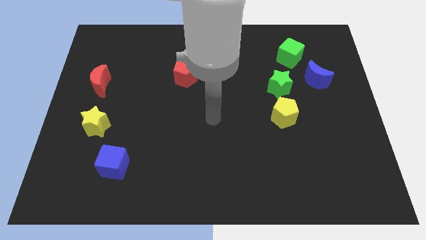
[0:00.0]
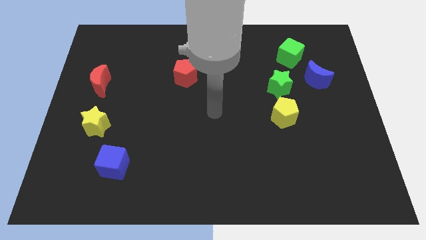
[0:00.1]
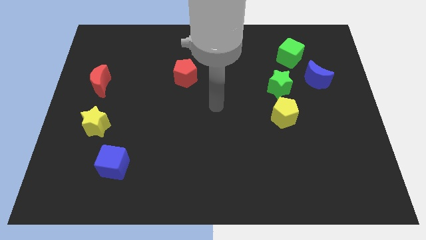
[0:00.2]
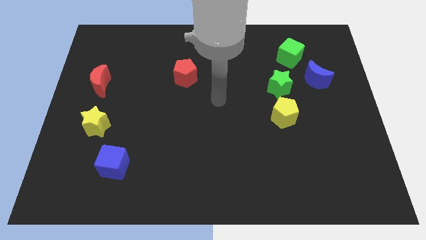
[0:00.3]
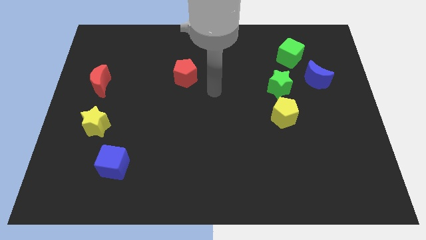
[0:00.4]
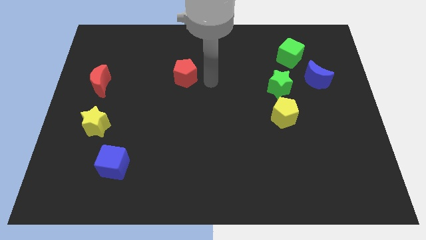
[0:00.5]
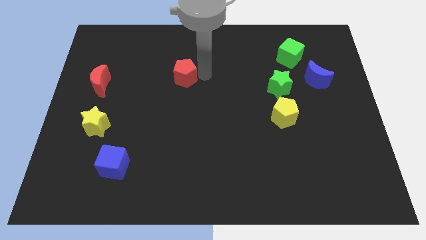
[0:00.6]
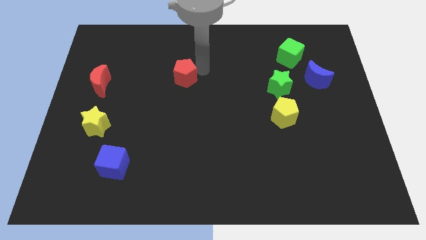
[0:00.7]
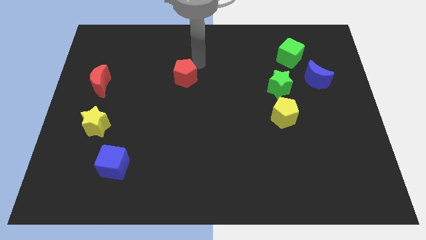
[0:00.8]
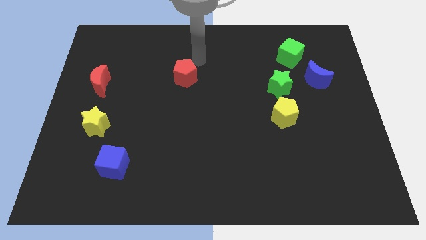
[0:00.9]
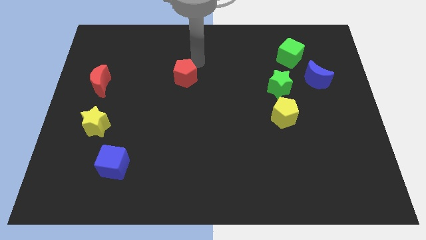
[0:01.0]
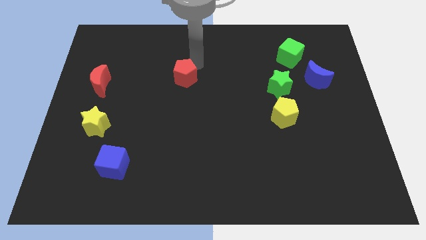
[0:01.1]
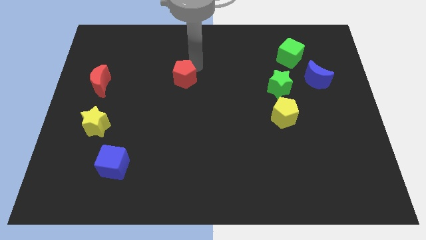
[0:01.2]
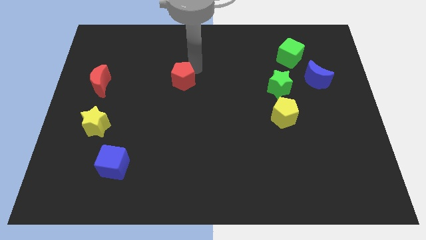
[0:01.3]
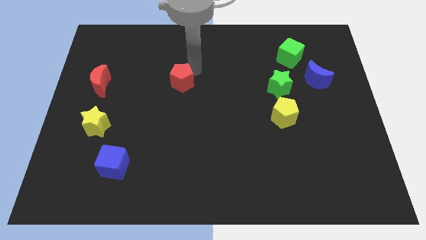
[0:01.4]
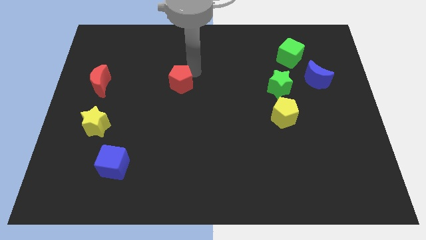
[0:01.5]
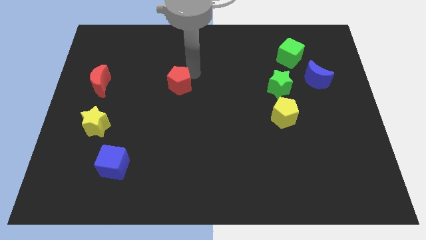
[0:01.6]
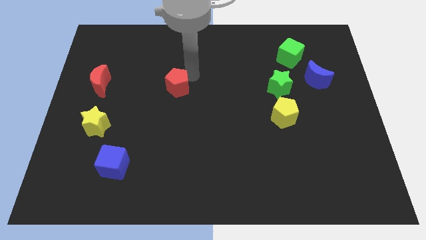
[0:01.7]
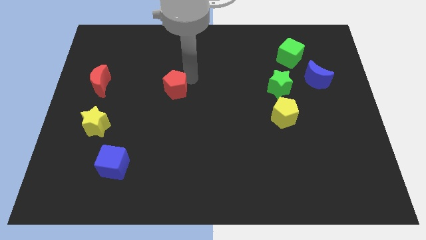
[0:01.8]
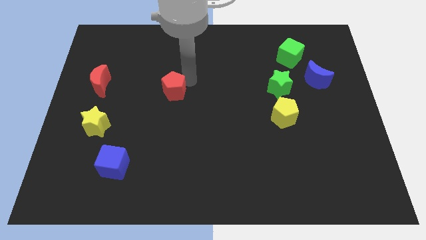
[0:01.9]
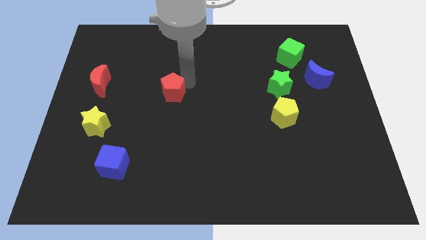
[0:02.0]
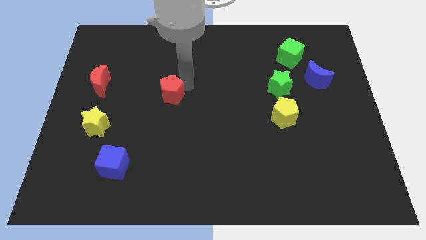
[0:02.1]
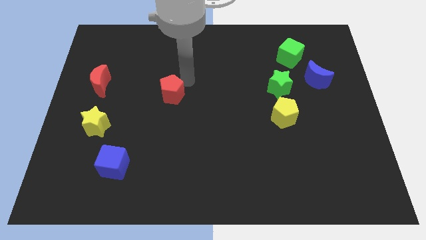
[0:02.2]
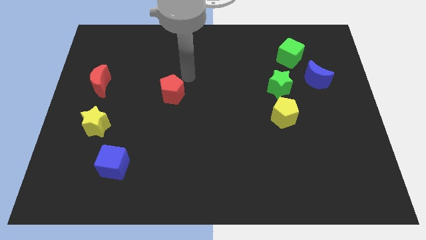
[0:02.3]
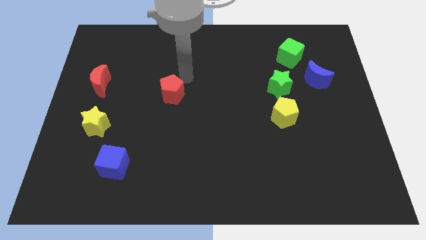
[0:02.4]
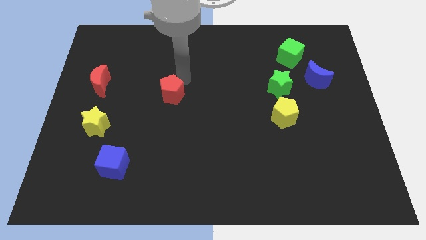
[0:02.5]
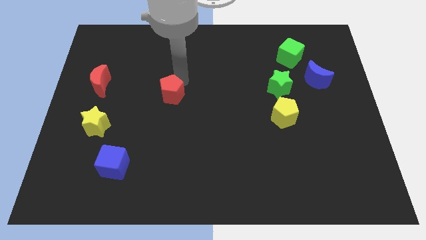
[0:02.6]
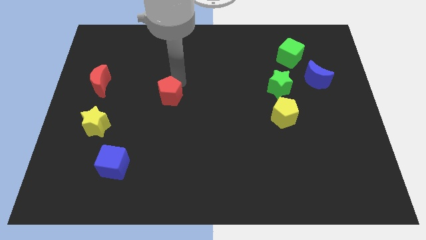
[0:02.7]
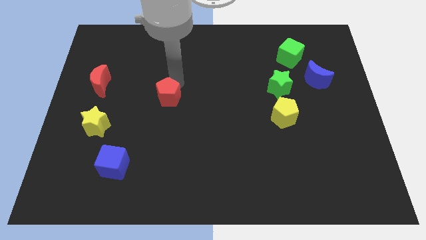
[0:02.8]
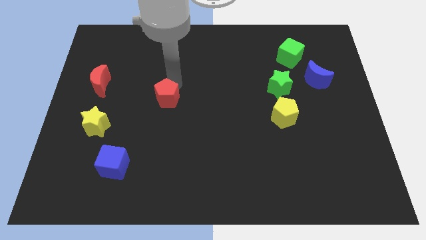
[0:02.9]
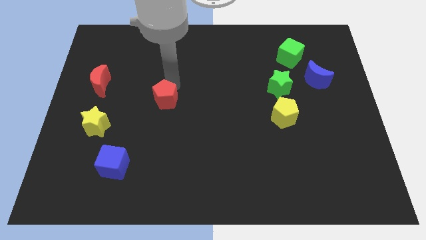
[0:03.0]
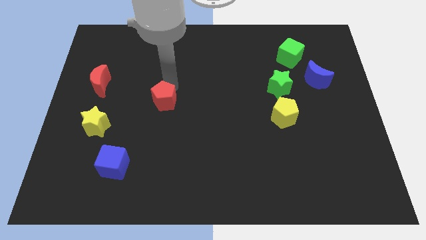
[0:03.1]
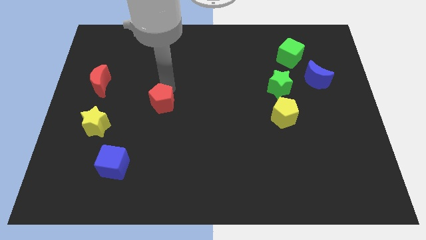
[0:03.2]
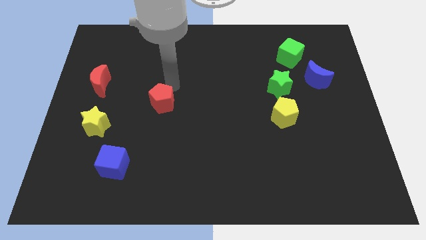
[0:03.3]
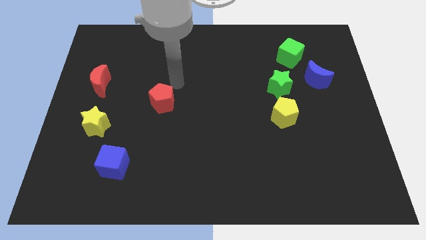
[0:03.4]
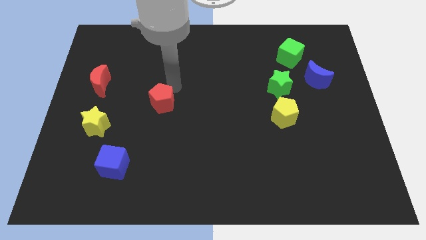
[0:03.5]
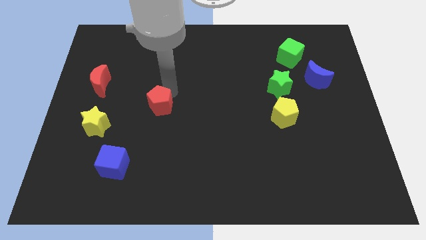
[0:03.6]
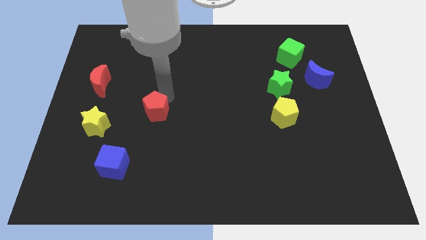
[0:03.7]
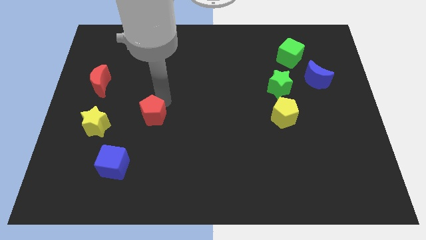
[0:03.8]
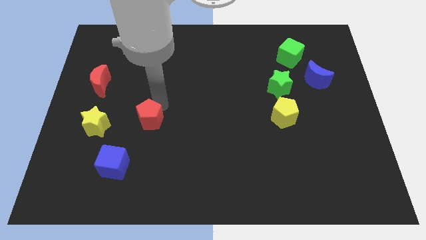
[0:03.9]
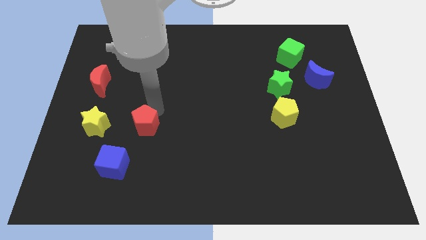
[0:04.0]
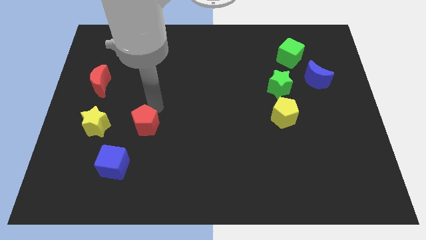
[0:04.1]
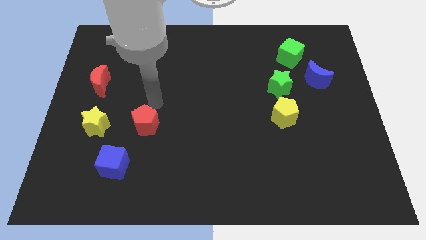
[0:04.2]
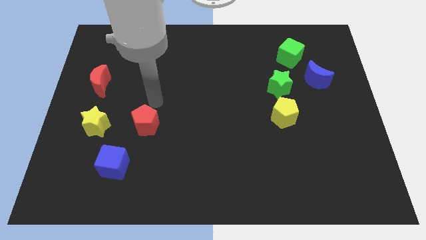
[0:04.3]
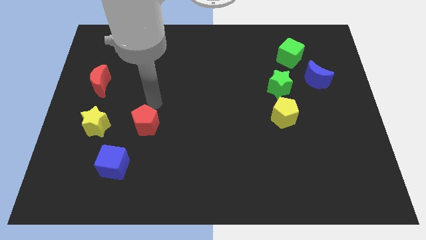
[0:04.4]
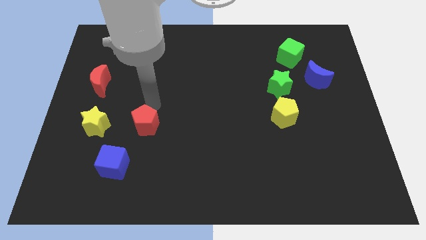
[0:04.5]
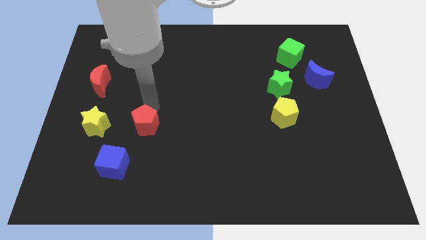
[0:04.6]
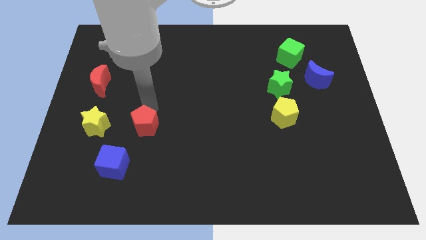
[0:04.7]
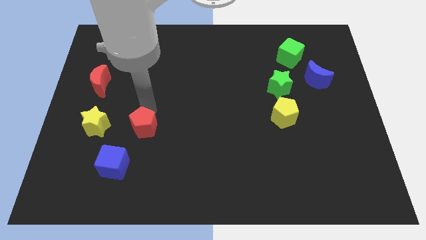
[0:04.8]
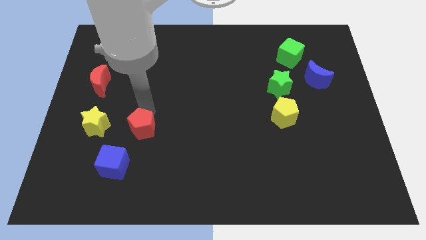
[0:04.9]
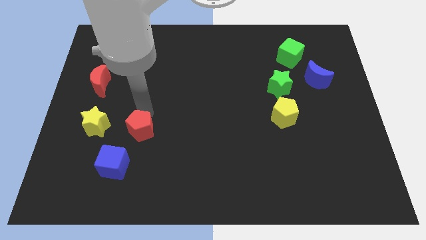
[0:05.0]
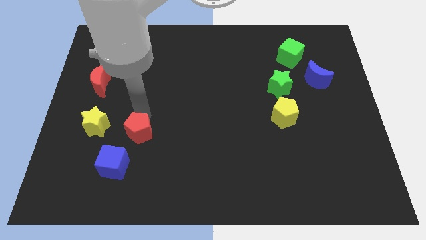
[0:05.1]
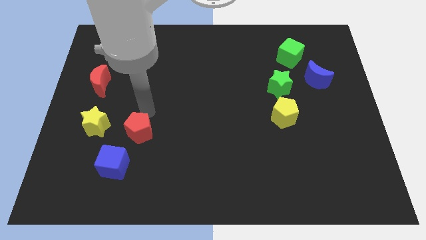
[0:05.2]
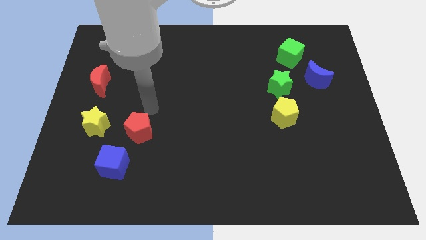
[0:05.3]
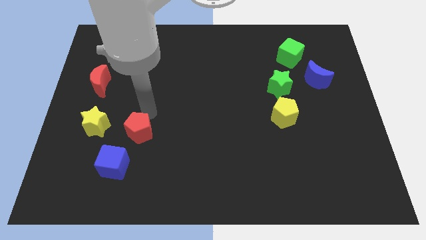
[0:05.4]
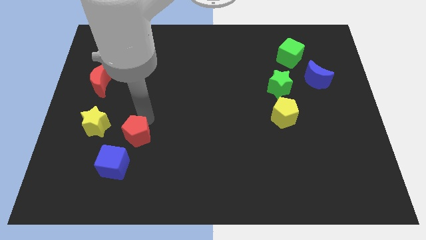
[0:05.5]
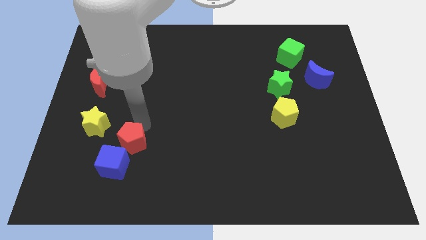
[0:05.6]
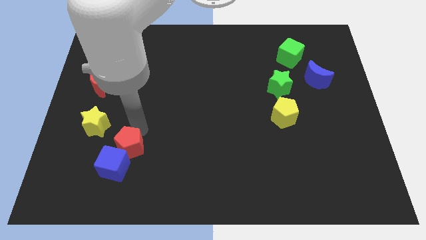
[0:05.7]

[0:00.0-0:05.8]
slide the red pentagon close to the blue cube

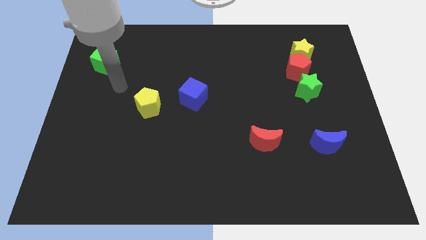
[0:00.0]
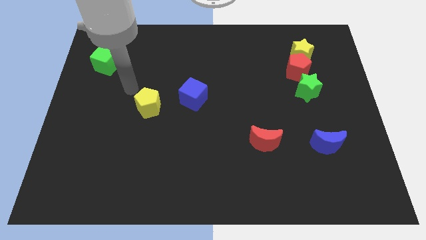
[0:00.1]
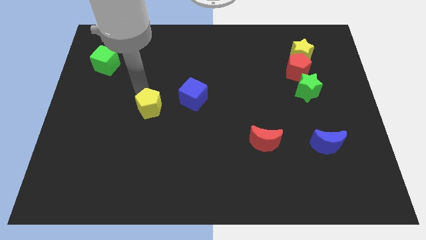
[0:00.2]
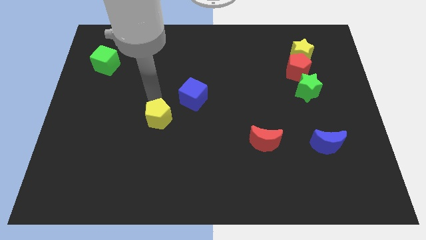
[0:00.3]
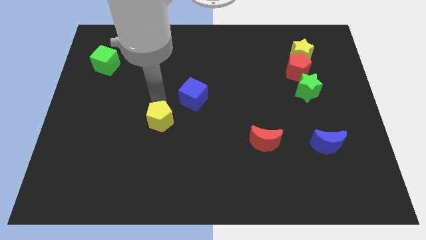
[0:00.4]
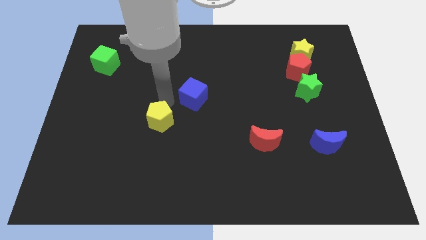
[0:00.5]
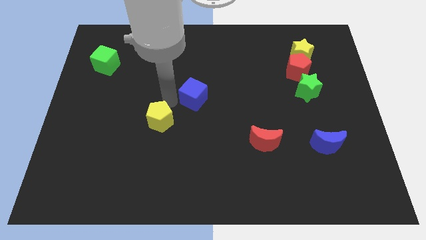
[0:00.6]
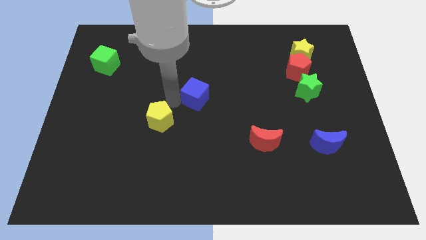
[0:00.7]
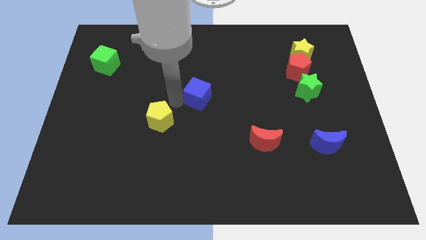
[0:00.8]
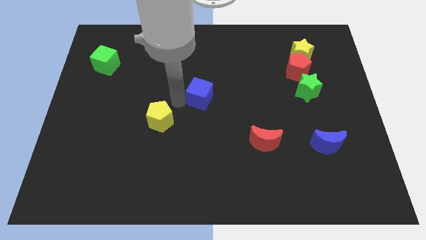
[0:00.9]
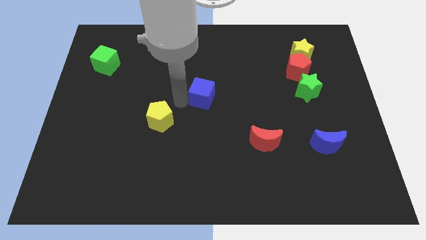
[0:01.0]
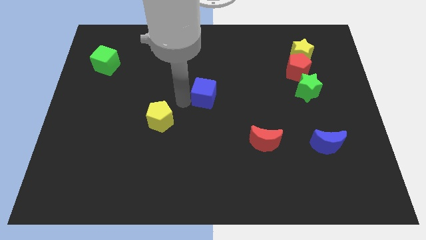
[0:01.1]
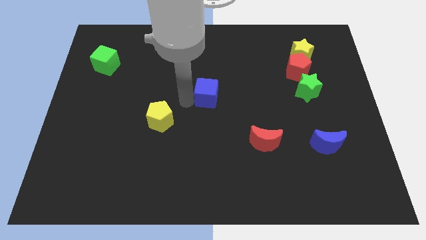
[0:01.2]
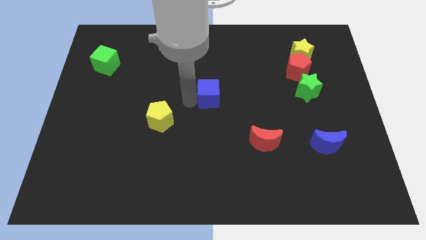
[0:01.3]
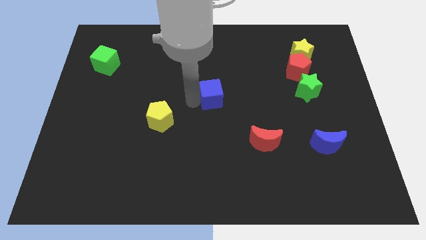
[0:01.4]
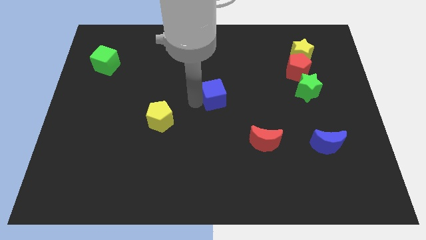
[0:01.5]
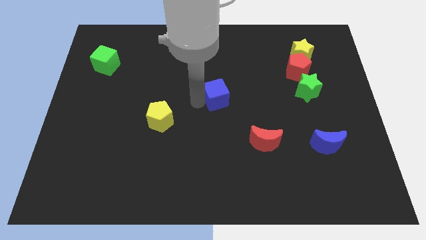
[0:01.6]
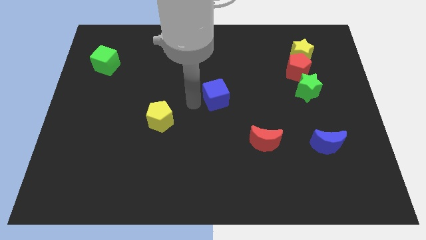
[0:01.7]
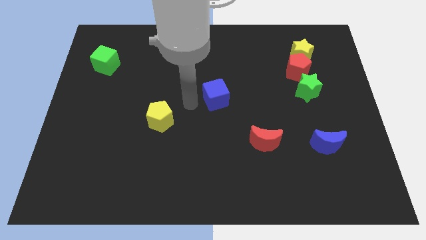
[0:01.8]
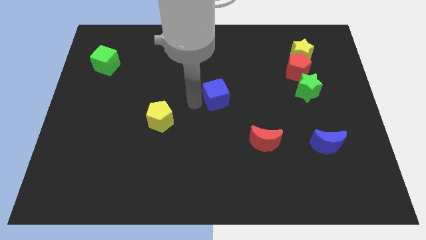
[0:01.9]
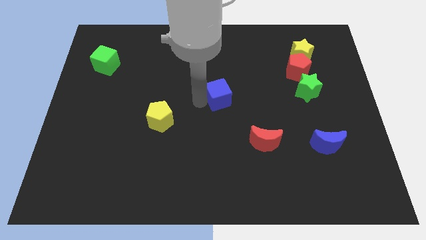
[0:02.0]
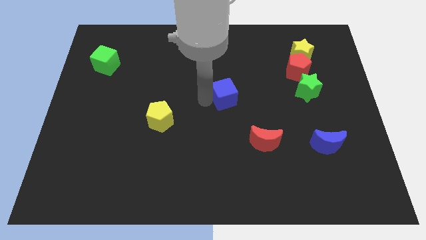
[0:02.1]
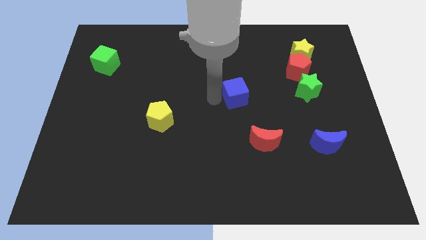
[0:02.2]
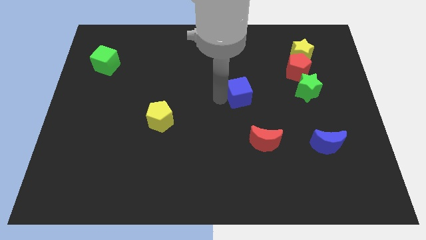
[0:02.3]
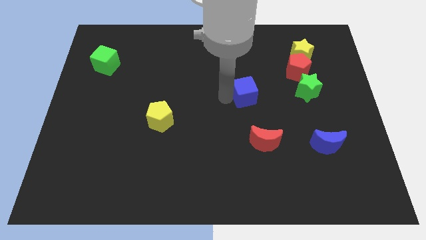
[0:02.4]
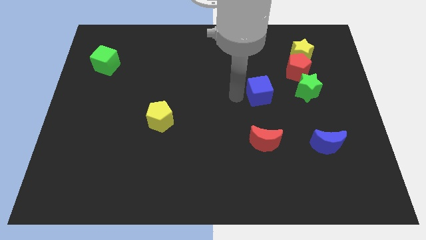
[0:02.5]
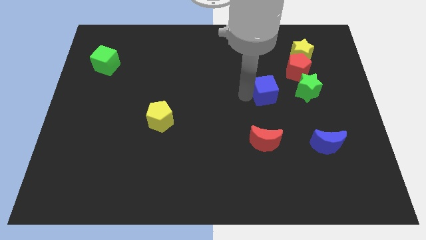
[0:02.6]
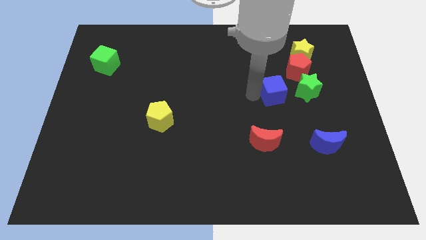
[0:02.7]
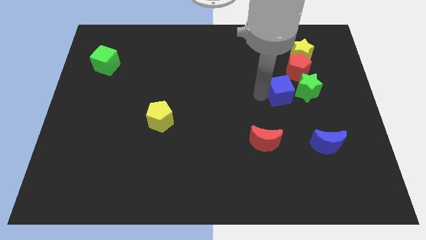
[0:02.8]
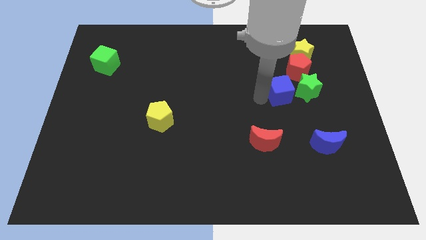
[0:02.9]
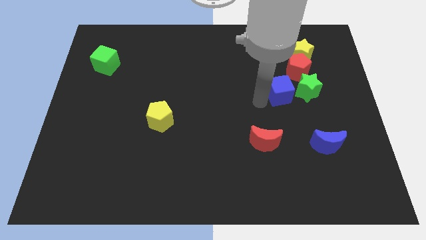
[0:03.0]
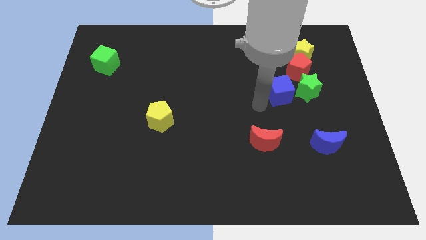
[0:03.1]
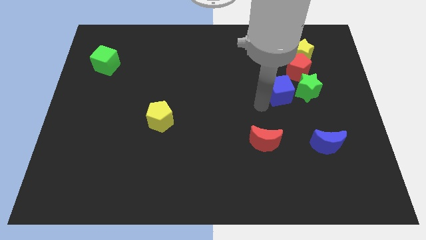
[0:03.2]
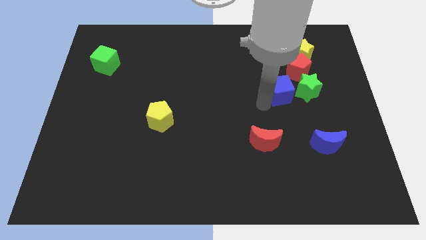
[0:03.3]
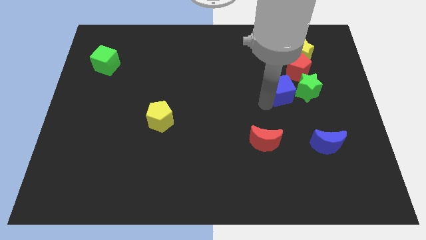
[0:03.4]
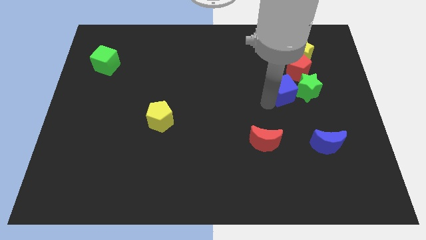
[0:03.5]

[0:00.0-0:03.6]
slide the blue cube to the green star
